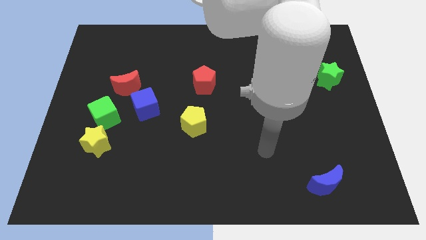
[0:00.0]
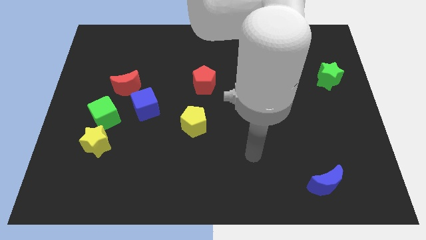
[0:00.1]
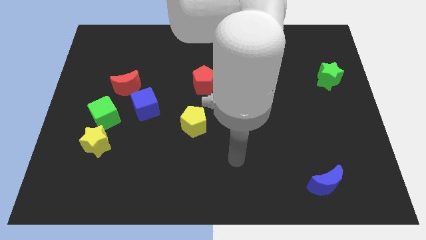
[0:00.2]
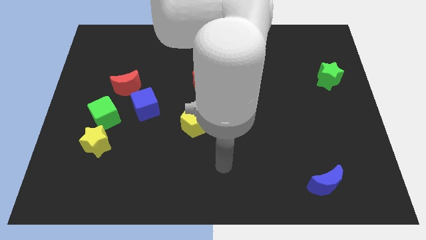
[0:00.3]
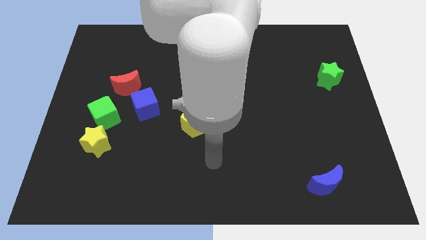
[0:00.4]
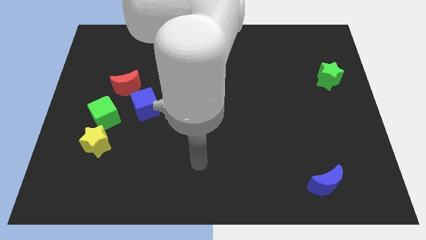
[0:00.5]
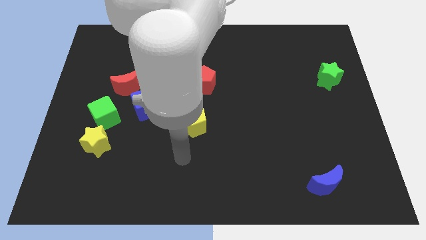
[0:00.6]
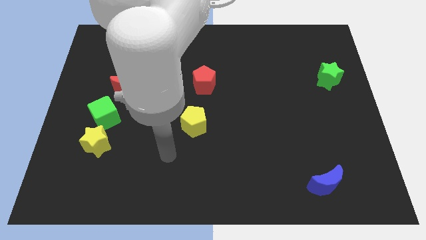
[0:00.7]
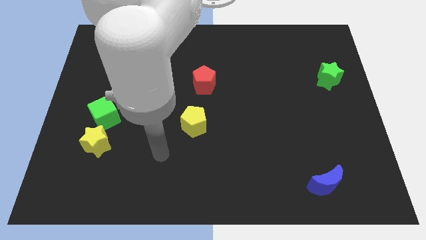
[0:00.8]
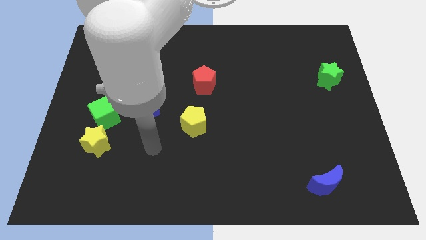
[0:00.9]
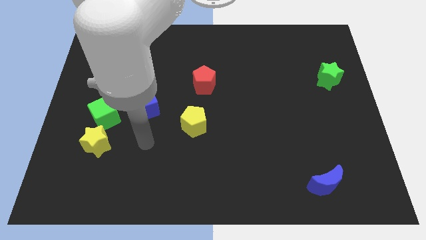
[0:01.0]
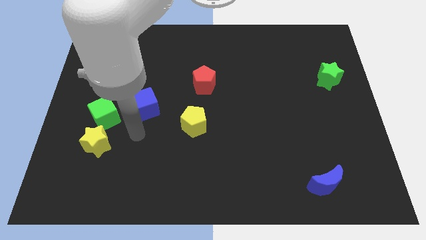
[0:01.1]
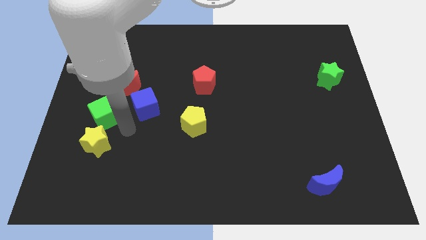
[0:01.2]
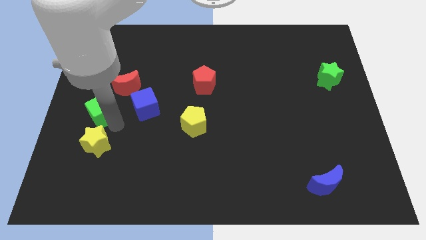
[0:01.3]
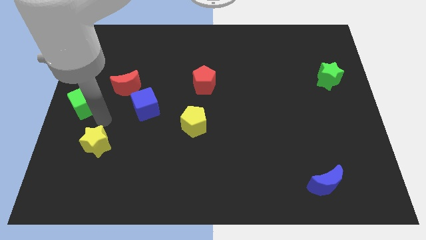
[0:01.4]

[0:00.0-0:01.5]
separate the yellow star from the green cube

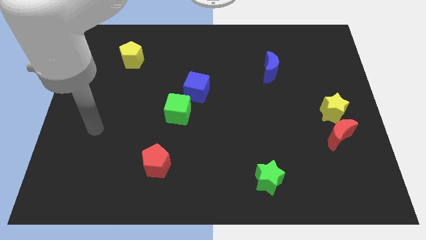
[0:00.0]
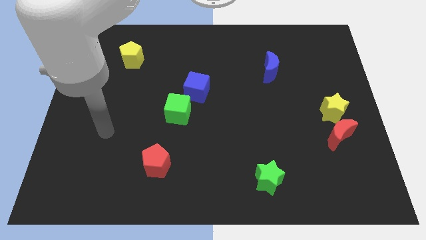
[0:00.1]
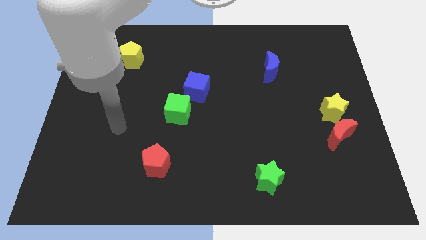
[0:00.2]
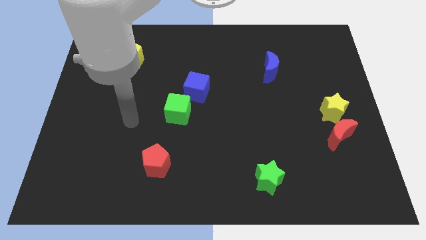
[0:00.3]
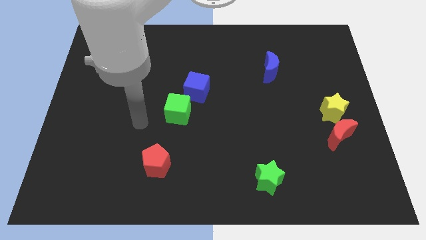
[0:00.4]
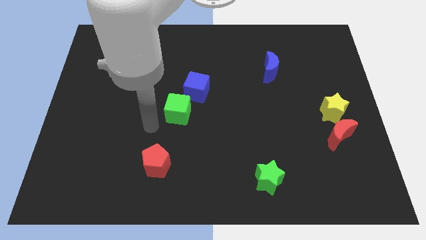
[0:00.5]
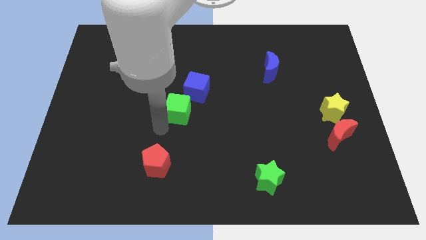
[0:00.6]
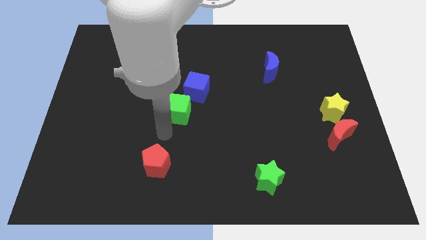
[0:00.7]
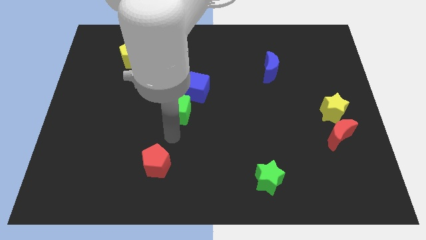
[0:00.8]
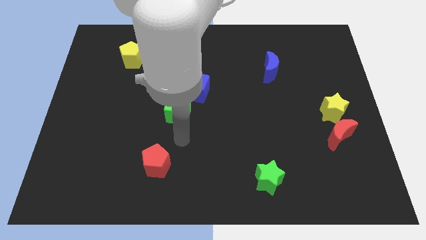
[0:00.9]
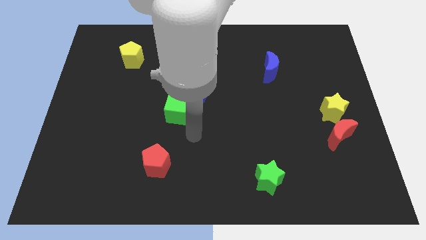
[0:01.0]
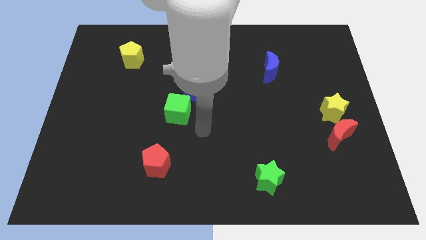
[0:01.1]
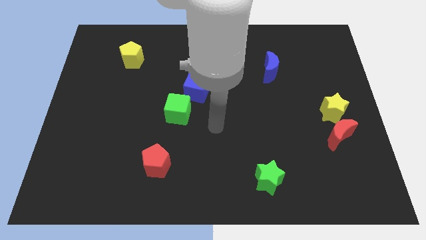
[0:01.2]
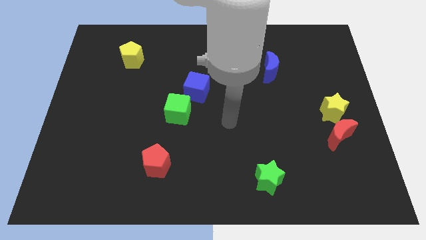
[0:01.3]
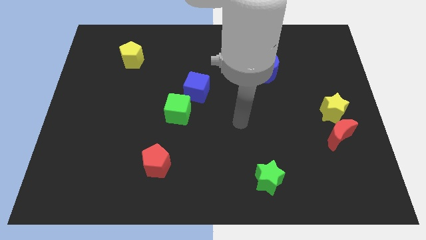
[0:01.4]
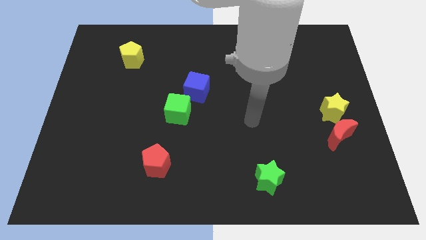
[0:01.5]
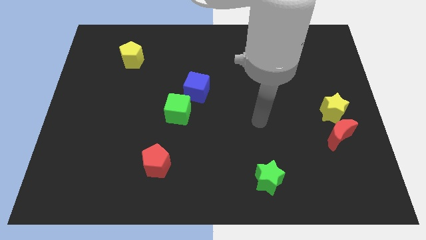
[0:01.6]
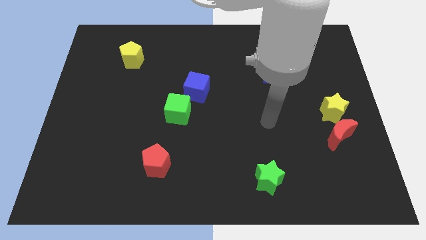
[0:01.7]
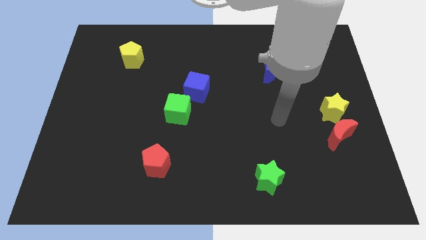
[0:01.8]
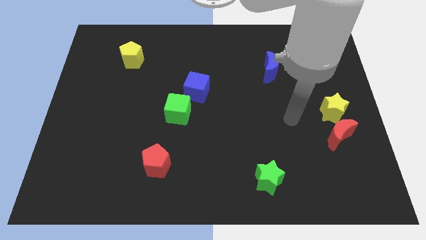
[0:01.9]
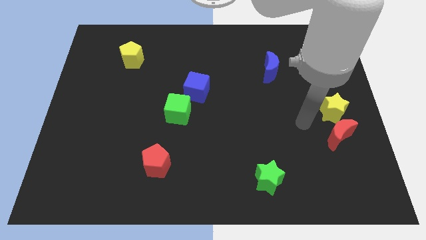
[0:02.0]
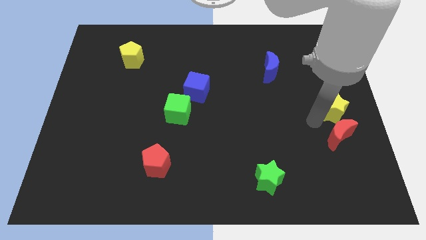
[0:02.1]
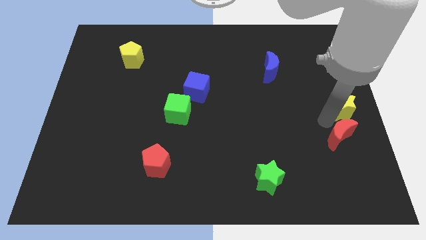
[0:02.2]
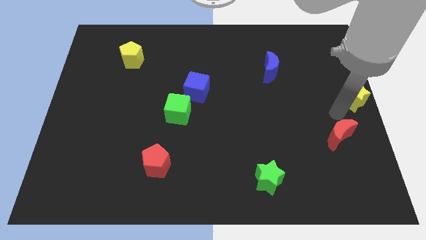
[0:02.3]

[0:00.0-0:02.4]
move the red moon away from the yellow star

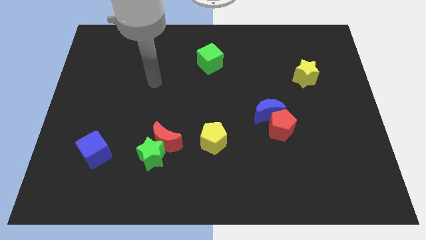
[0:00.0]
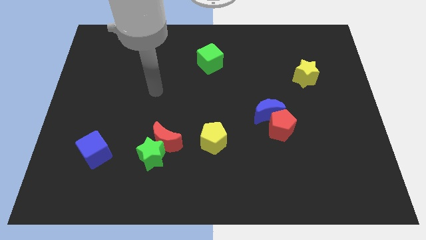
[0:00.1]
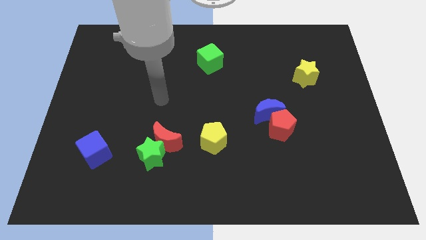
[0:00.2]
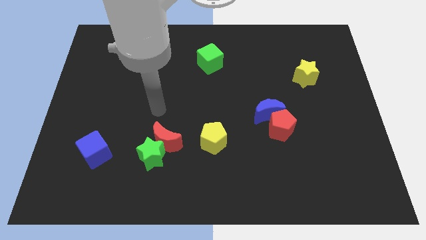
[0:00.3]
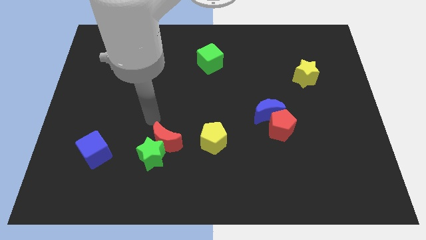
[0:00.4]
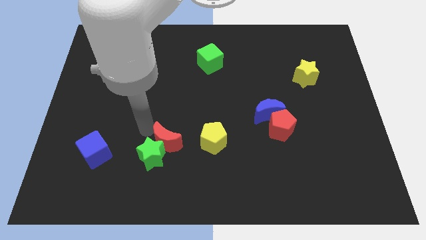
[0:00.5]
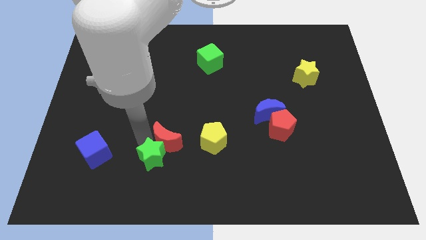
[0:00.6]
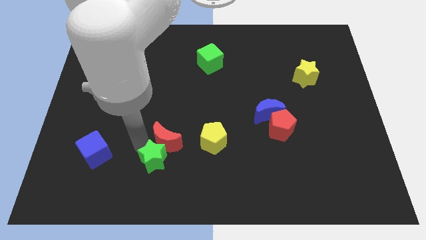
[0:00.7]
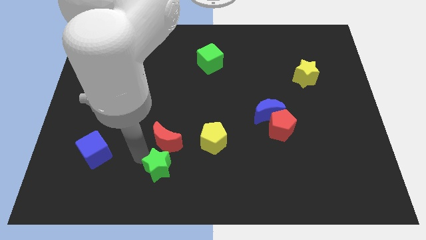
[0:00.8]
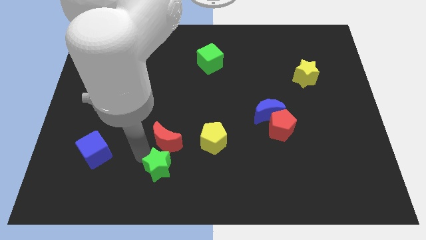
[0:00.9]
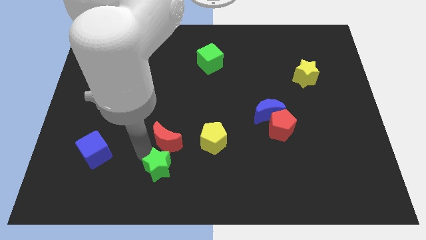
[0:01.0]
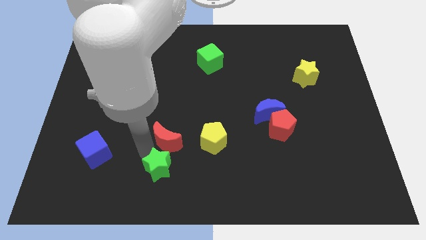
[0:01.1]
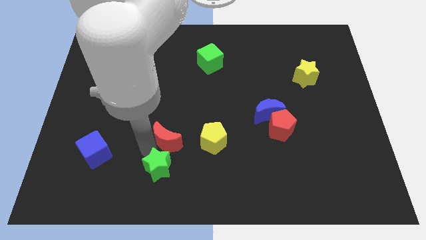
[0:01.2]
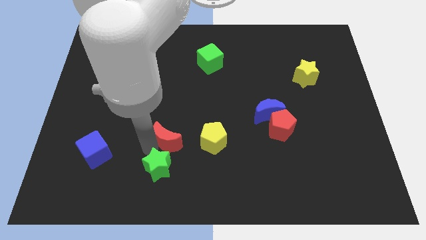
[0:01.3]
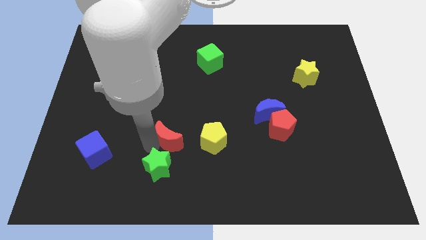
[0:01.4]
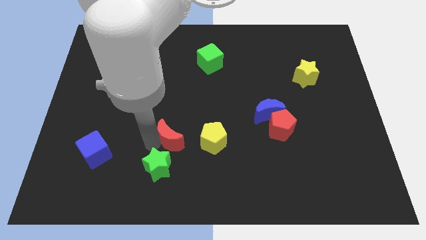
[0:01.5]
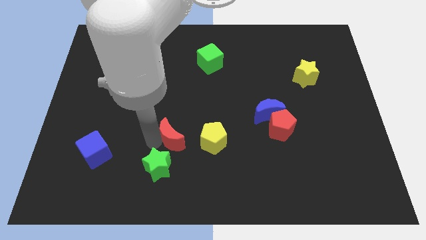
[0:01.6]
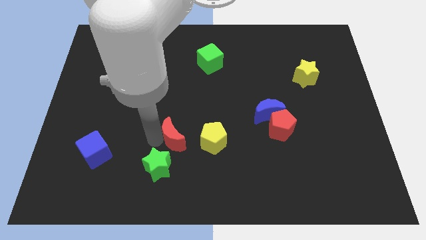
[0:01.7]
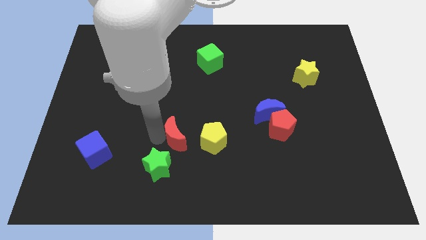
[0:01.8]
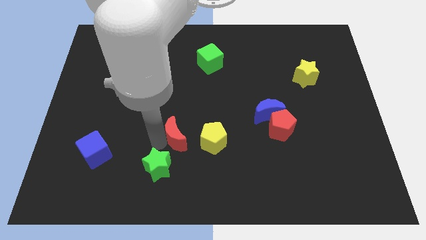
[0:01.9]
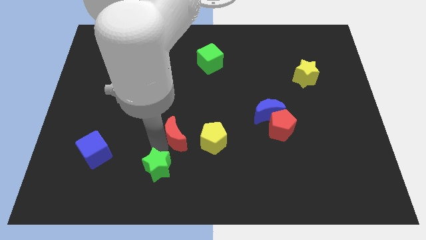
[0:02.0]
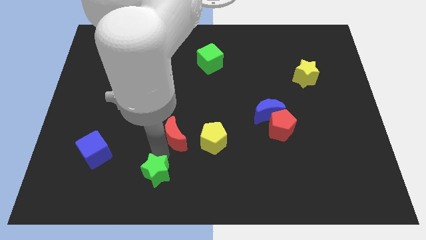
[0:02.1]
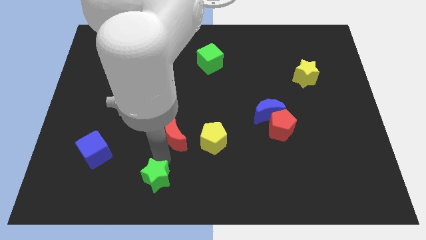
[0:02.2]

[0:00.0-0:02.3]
move the red moon away from the green star

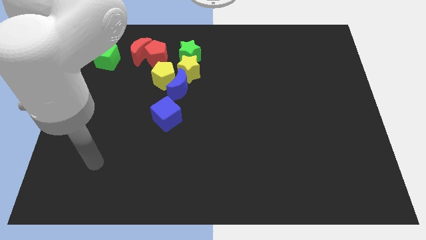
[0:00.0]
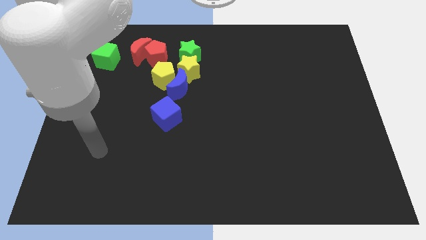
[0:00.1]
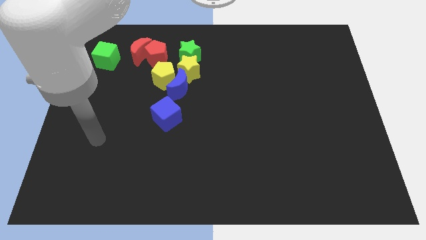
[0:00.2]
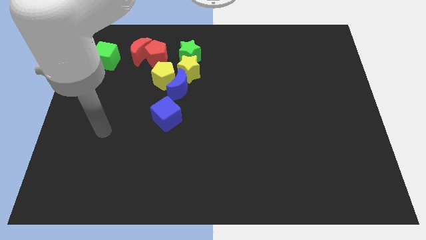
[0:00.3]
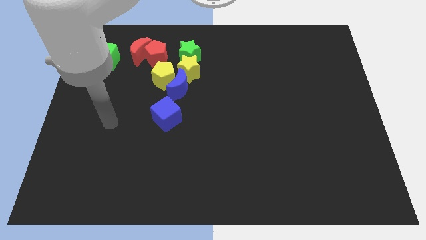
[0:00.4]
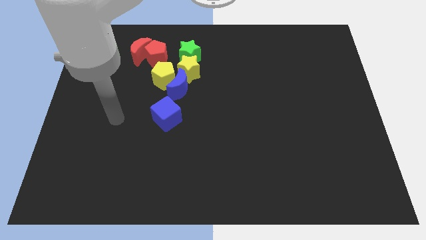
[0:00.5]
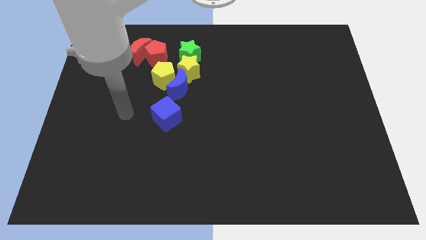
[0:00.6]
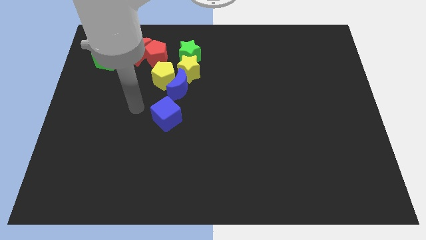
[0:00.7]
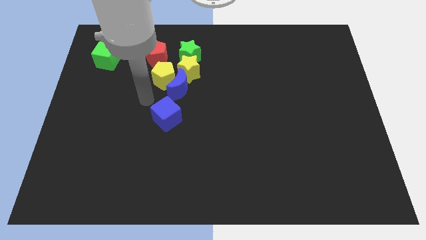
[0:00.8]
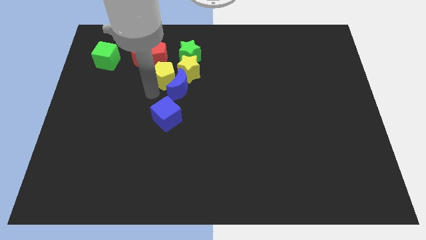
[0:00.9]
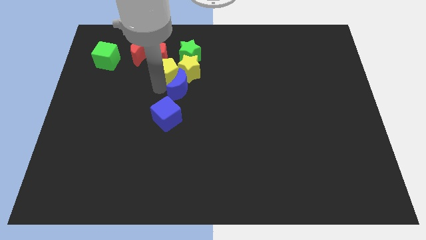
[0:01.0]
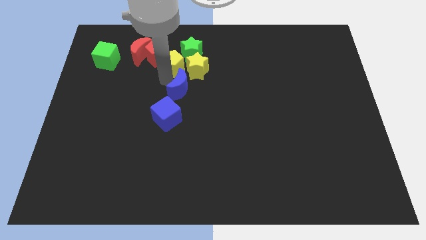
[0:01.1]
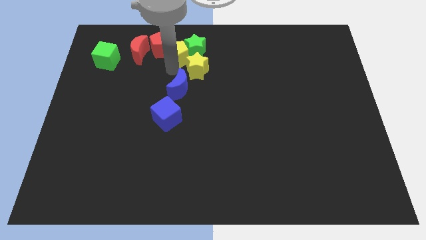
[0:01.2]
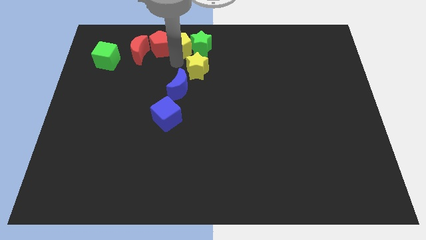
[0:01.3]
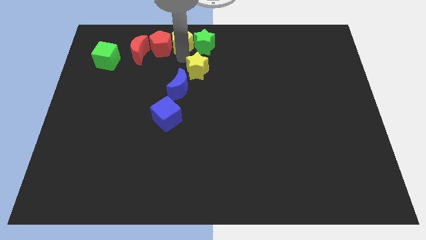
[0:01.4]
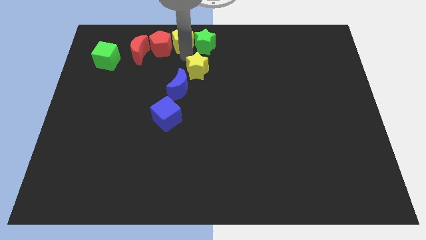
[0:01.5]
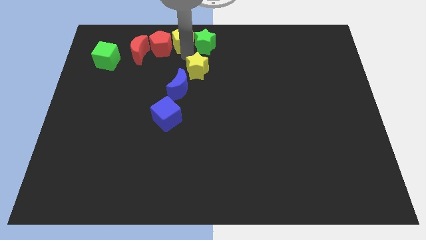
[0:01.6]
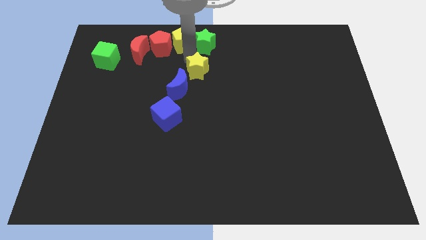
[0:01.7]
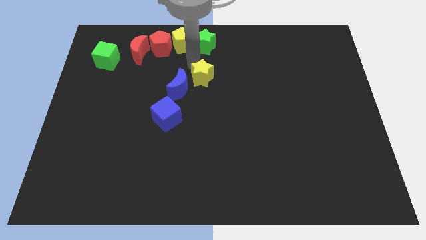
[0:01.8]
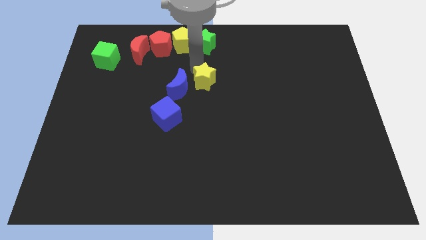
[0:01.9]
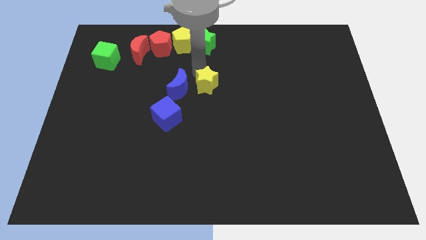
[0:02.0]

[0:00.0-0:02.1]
move the yellow star away from the green star, blue moon, and yellow pentagon

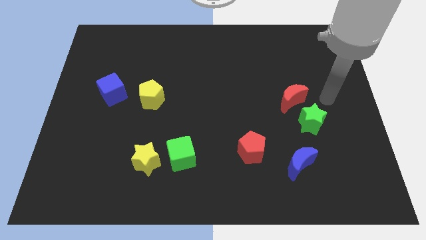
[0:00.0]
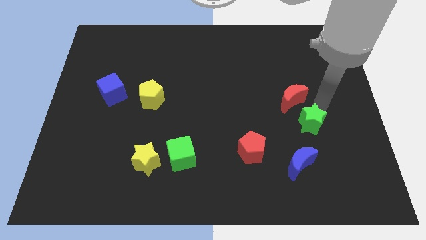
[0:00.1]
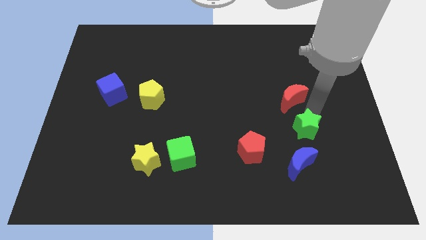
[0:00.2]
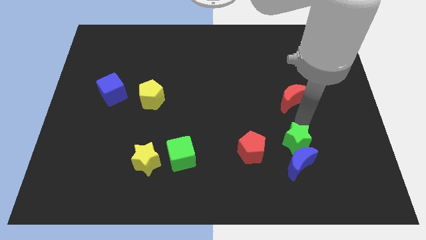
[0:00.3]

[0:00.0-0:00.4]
pull the red moon apart from the green star

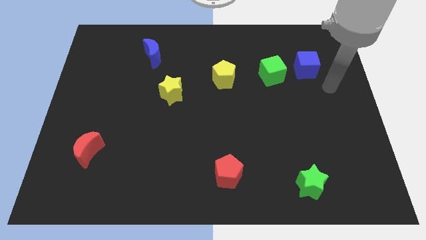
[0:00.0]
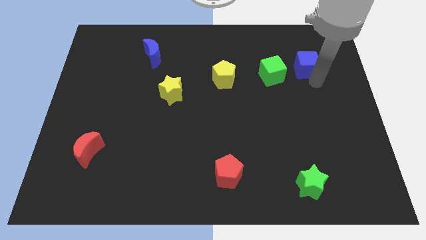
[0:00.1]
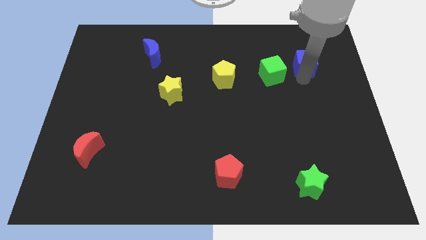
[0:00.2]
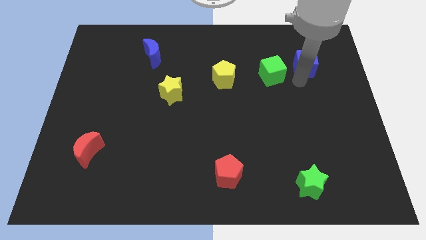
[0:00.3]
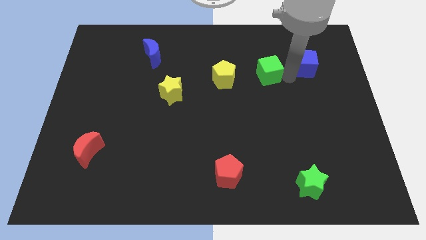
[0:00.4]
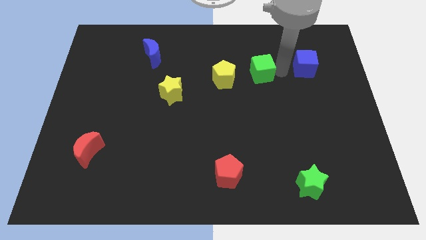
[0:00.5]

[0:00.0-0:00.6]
separate the blue cube from the green cube
